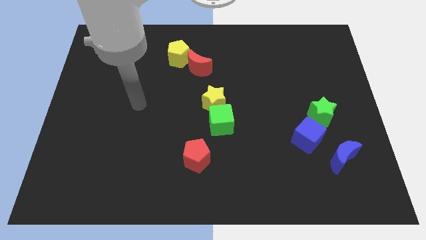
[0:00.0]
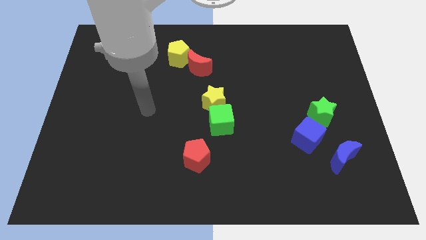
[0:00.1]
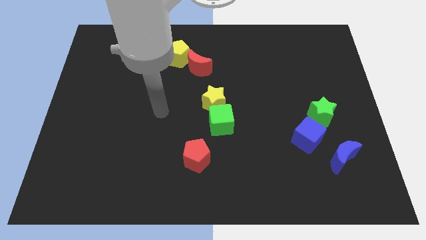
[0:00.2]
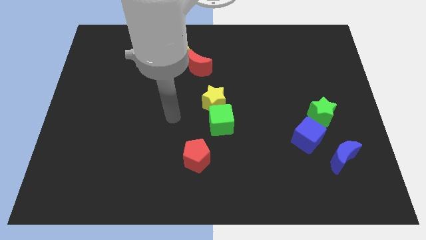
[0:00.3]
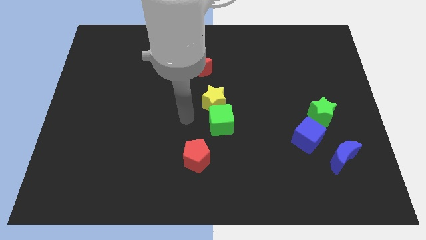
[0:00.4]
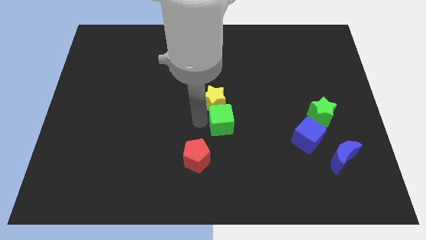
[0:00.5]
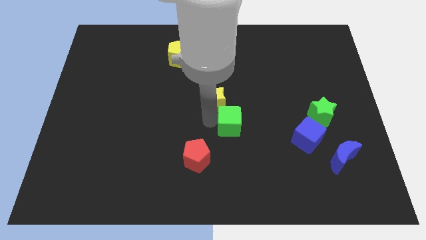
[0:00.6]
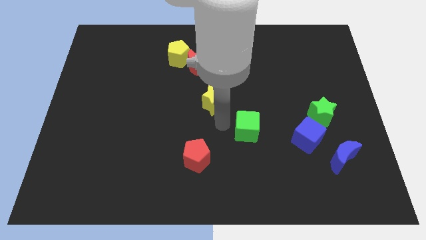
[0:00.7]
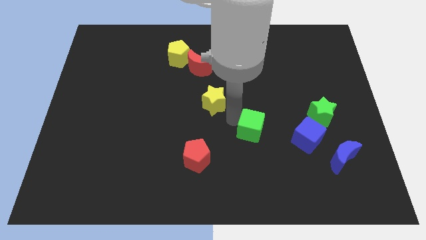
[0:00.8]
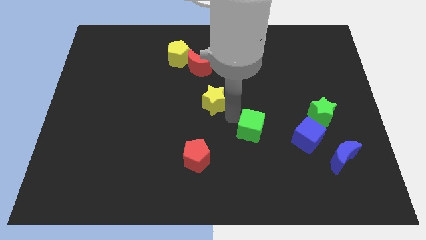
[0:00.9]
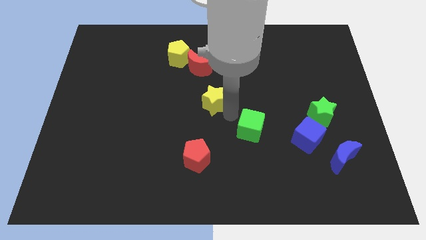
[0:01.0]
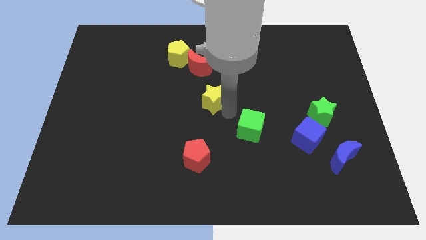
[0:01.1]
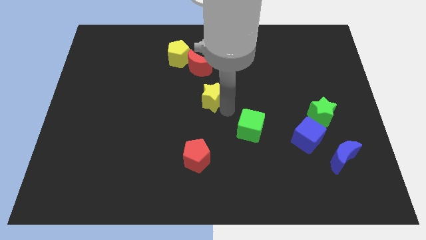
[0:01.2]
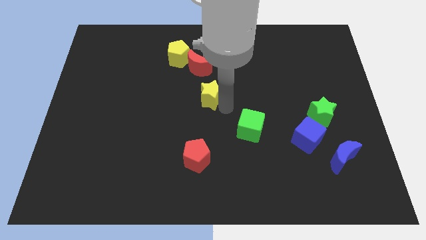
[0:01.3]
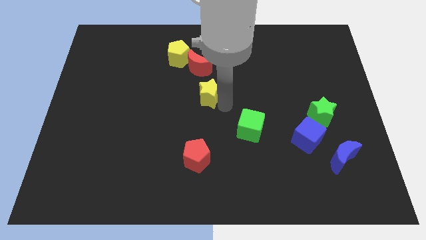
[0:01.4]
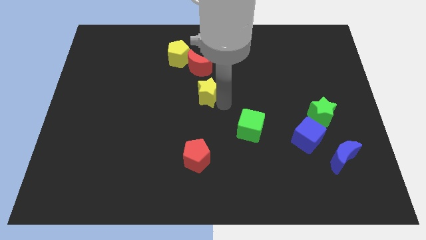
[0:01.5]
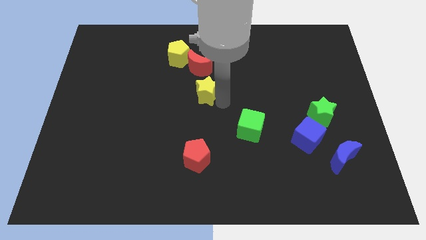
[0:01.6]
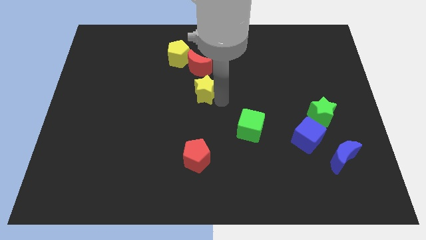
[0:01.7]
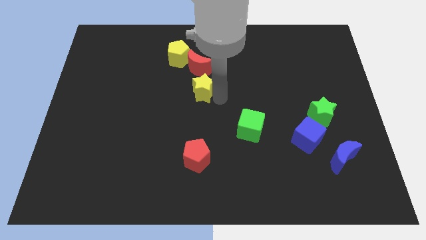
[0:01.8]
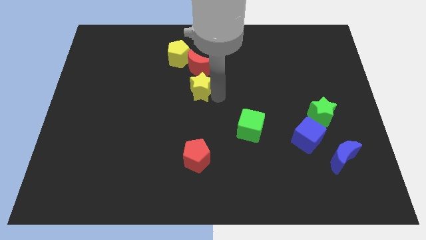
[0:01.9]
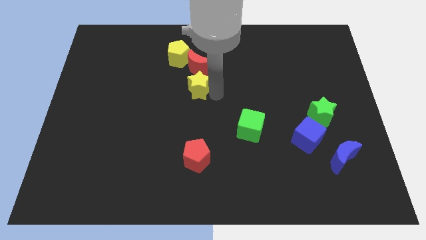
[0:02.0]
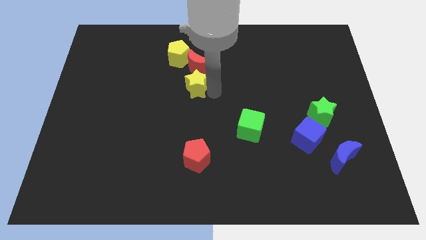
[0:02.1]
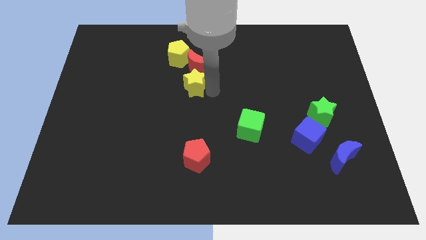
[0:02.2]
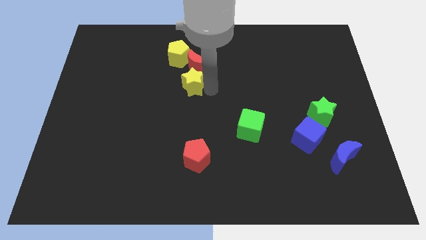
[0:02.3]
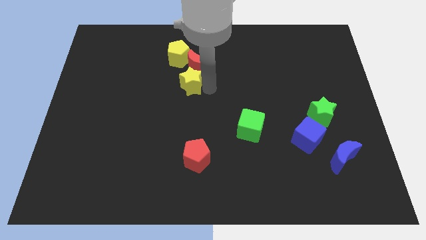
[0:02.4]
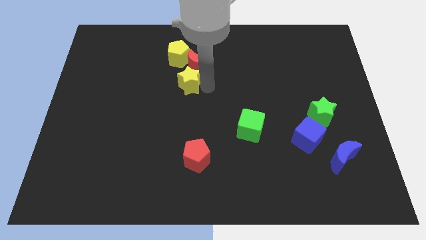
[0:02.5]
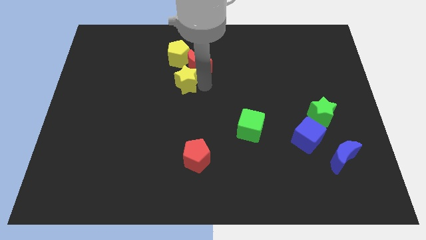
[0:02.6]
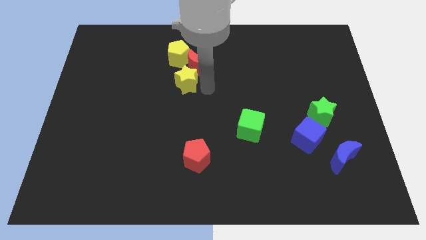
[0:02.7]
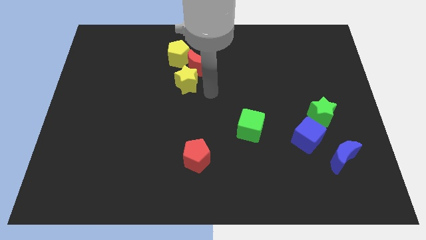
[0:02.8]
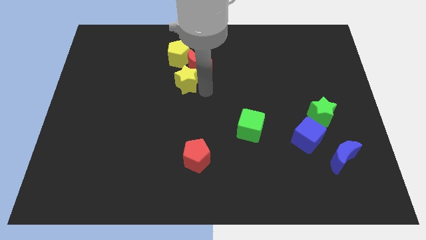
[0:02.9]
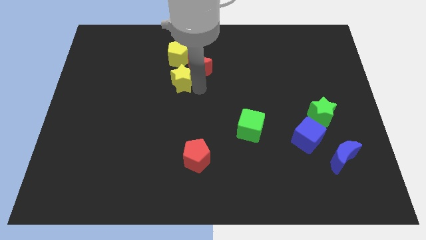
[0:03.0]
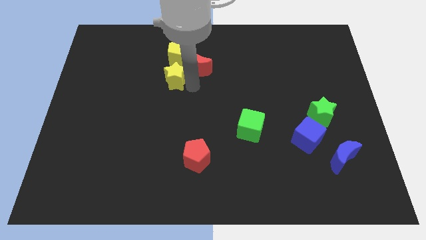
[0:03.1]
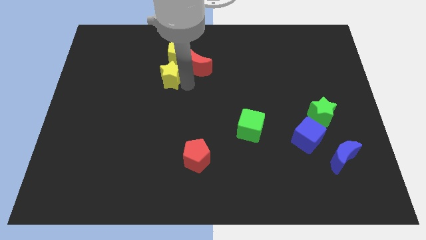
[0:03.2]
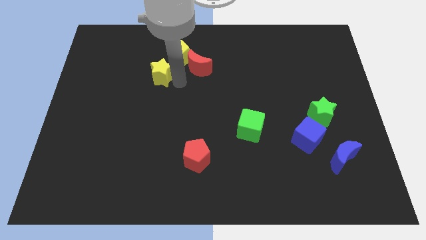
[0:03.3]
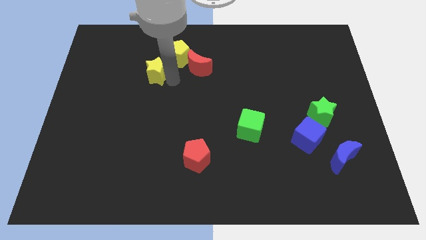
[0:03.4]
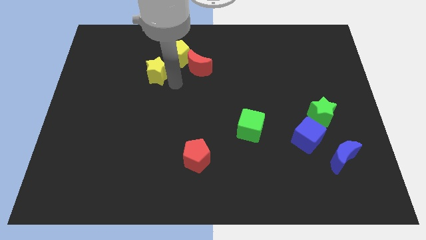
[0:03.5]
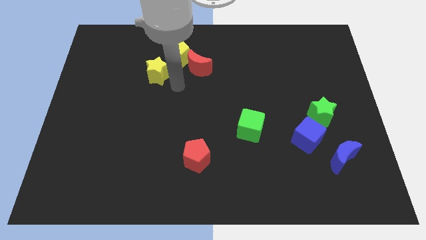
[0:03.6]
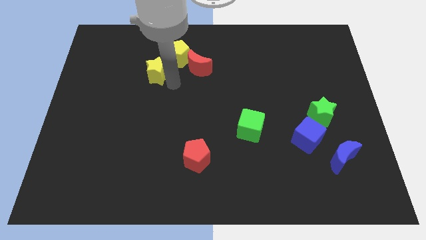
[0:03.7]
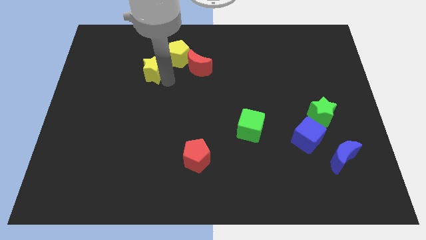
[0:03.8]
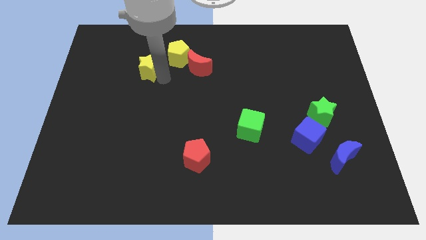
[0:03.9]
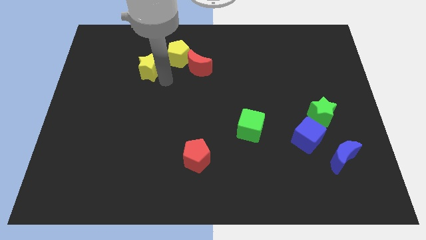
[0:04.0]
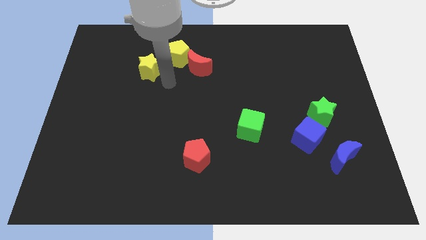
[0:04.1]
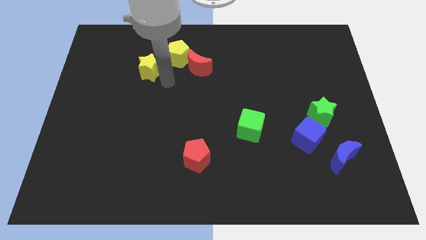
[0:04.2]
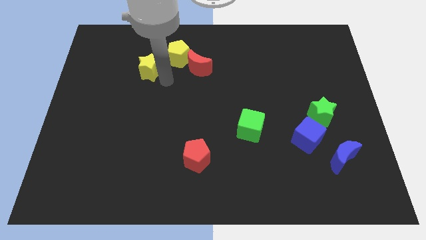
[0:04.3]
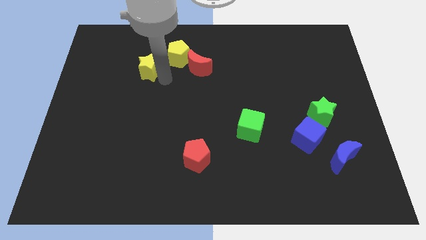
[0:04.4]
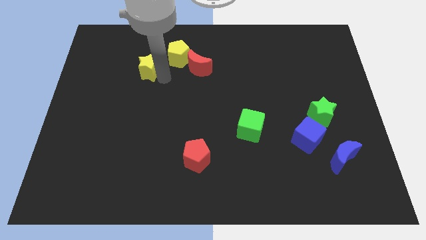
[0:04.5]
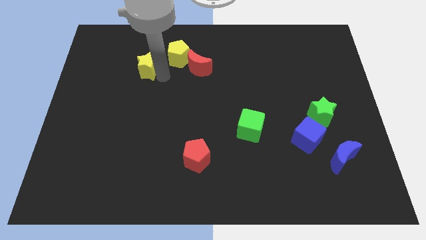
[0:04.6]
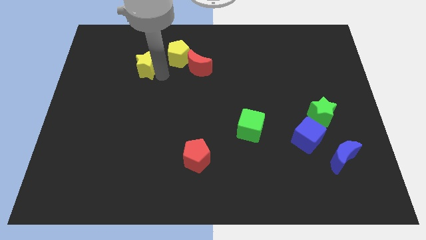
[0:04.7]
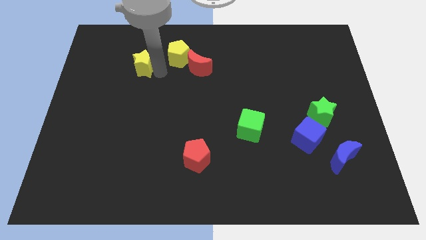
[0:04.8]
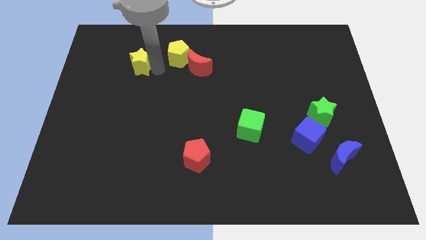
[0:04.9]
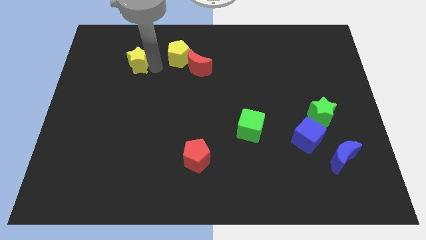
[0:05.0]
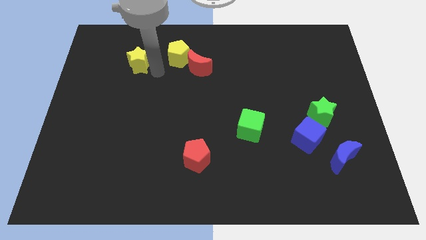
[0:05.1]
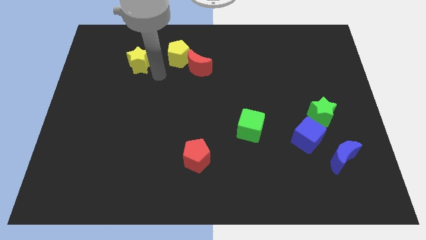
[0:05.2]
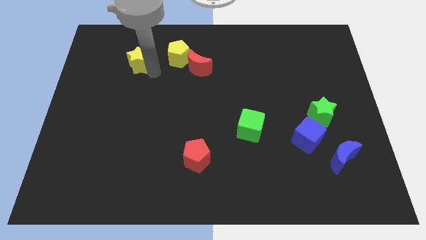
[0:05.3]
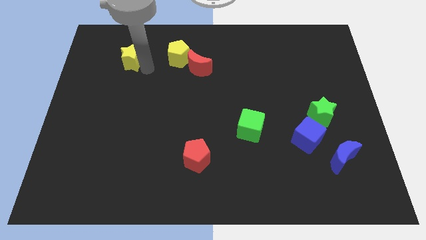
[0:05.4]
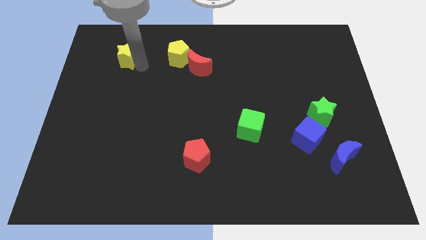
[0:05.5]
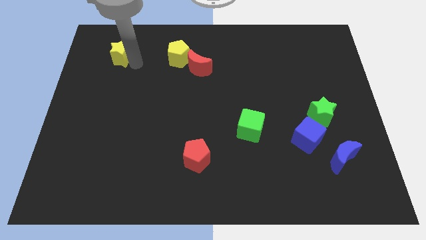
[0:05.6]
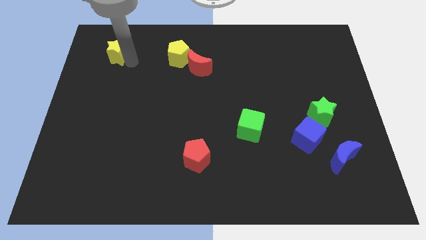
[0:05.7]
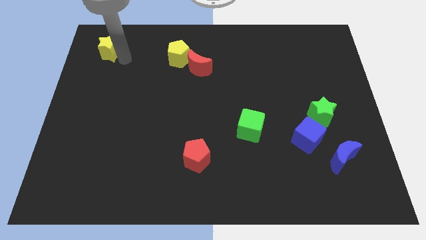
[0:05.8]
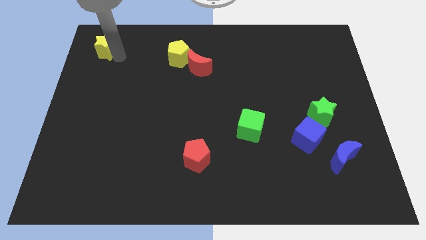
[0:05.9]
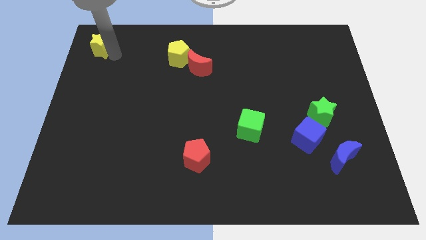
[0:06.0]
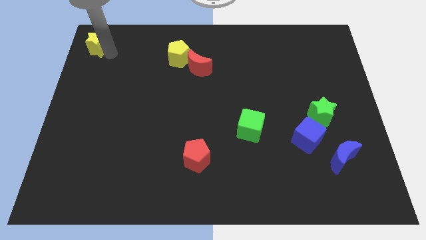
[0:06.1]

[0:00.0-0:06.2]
push the yellow star to the top left of the board

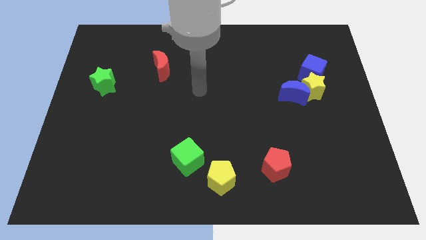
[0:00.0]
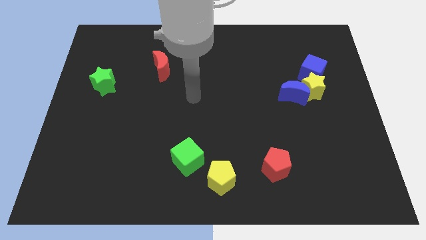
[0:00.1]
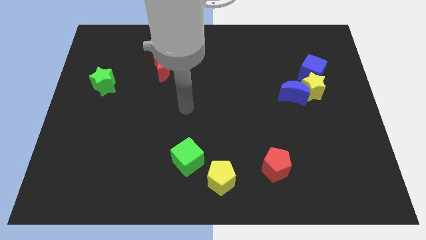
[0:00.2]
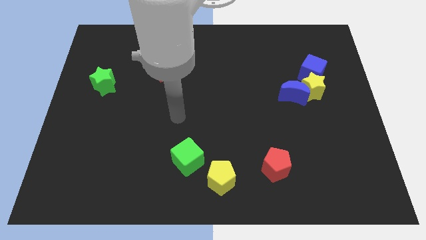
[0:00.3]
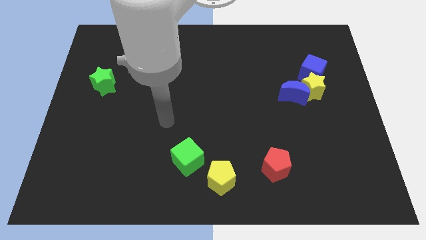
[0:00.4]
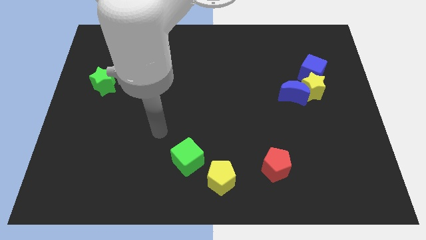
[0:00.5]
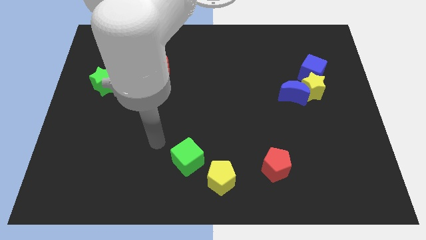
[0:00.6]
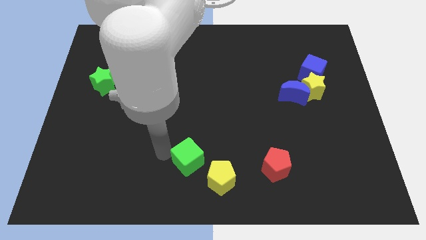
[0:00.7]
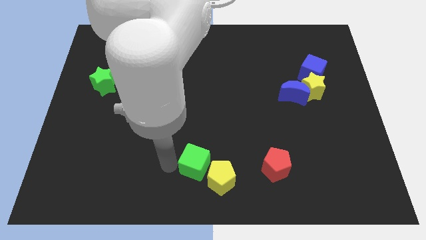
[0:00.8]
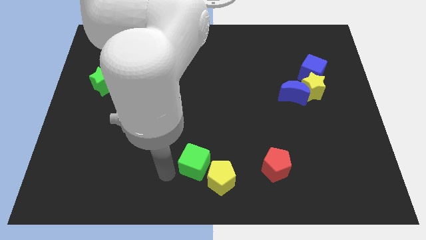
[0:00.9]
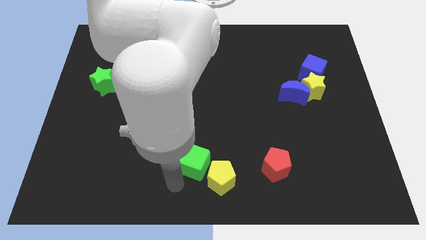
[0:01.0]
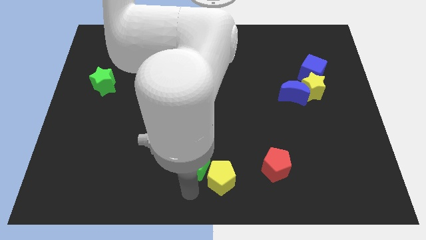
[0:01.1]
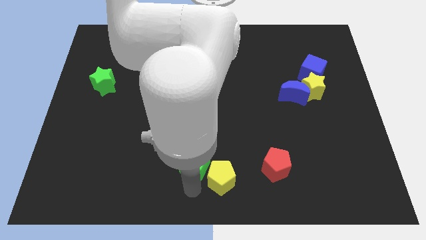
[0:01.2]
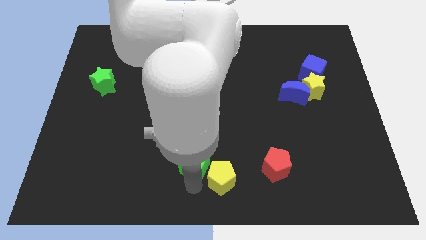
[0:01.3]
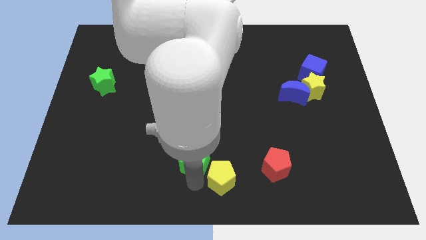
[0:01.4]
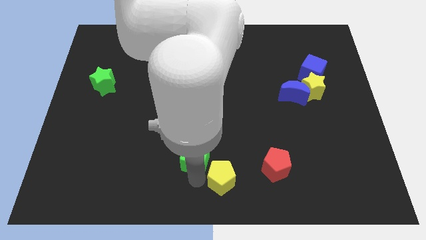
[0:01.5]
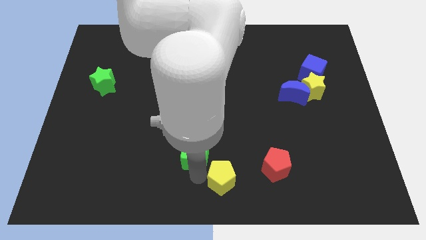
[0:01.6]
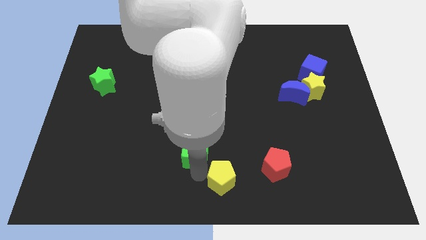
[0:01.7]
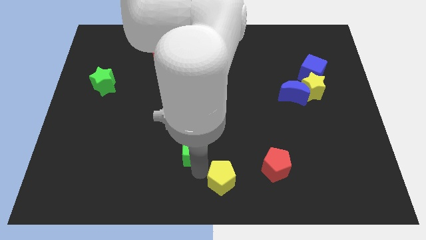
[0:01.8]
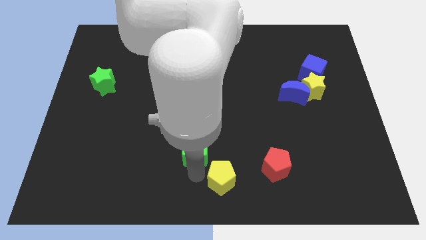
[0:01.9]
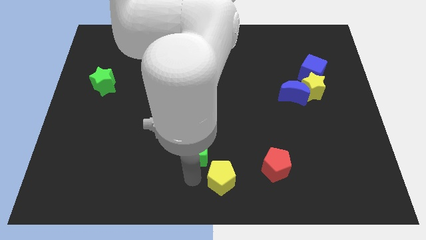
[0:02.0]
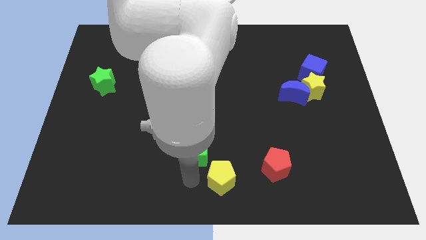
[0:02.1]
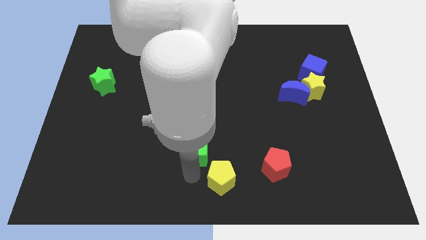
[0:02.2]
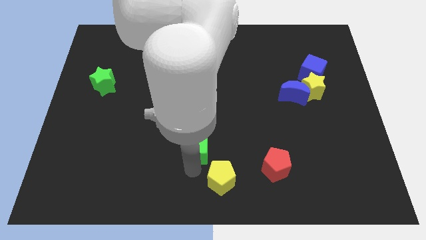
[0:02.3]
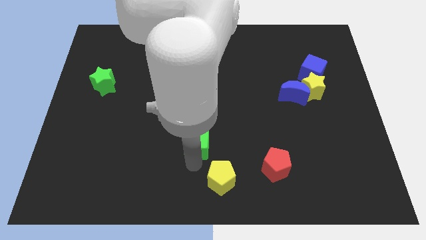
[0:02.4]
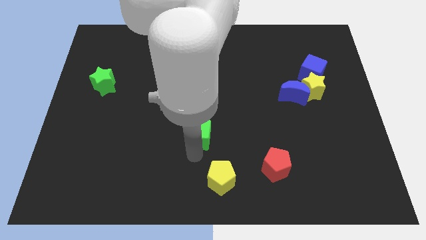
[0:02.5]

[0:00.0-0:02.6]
put the green cube to the center of the board
